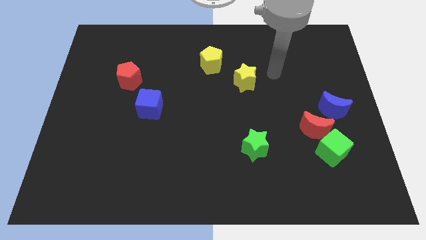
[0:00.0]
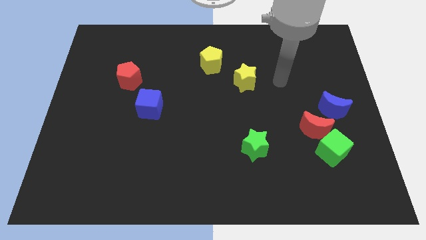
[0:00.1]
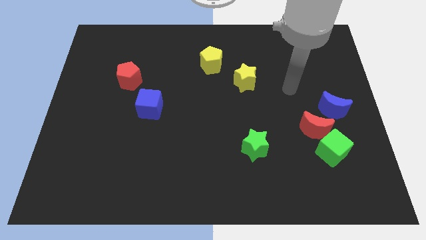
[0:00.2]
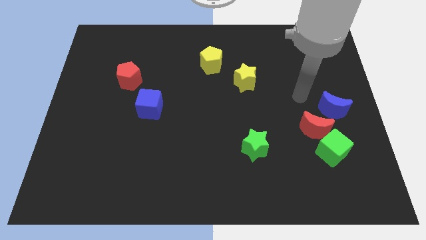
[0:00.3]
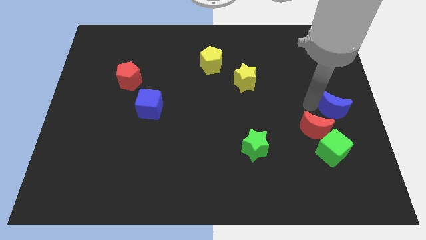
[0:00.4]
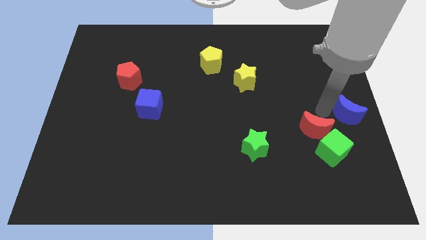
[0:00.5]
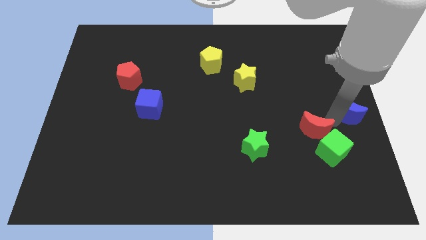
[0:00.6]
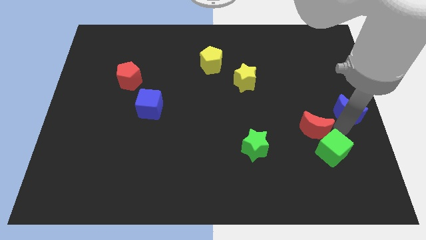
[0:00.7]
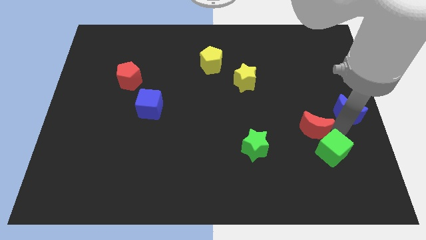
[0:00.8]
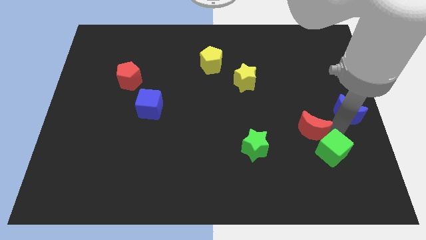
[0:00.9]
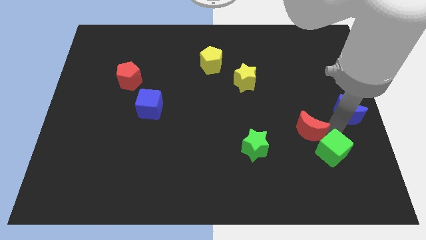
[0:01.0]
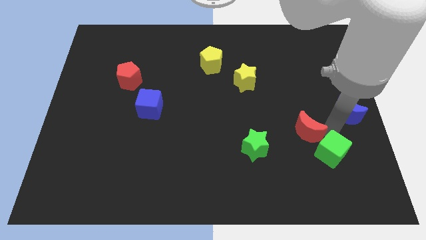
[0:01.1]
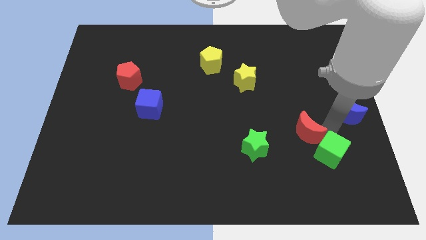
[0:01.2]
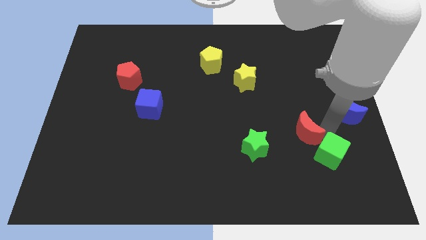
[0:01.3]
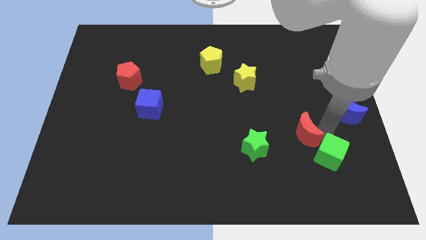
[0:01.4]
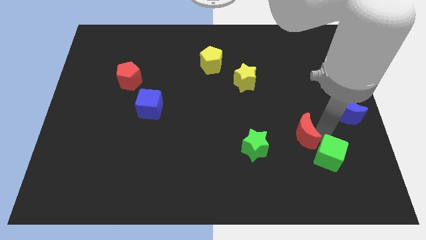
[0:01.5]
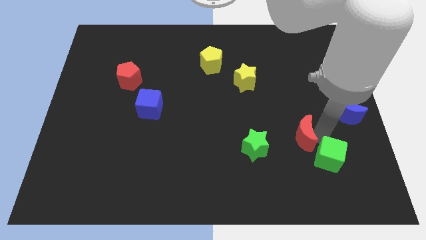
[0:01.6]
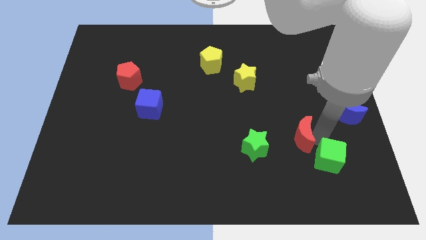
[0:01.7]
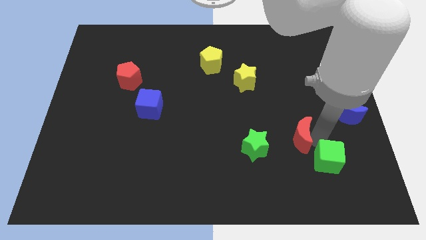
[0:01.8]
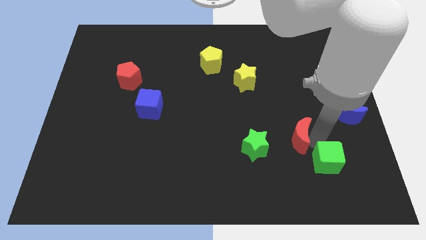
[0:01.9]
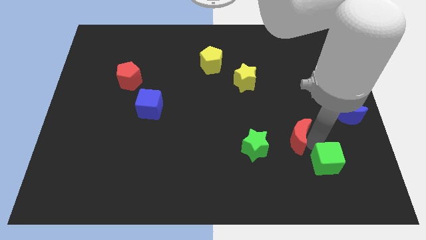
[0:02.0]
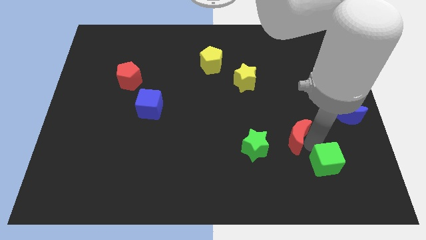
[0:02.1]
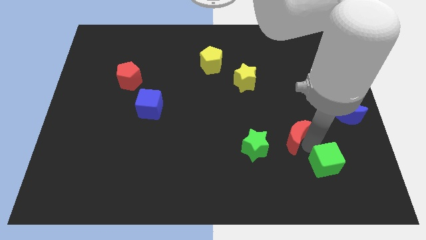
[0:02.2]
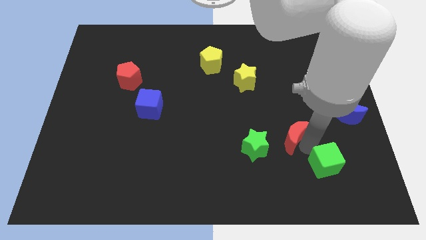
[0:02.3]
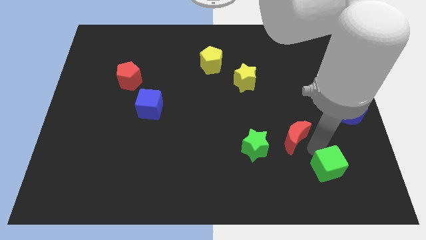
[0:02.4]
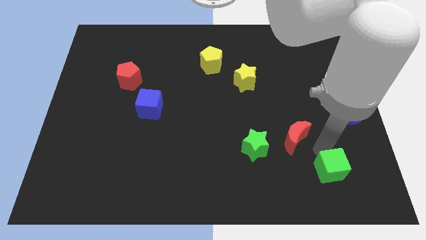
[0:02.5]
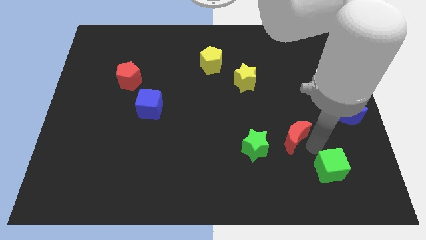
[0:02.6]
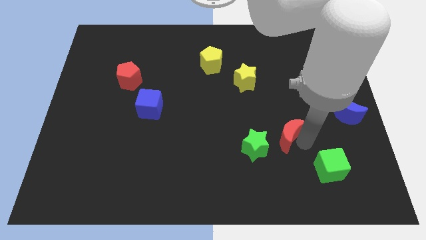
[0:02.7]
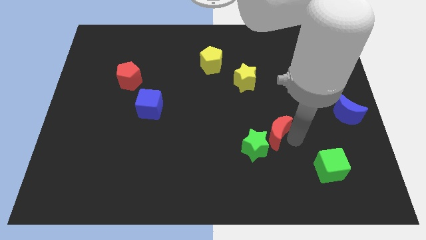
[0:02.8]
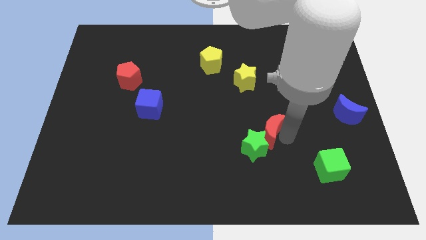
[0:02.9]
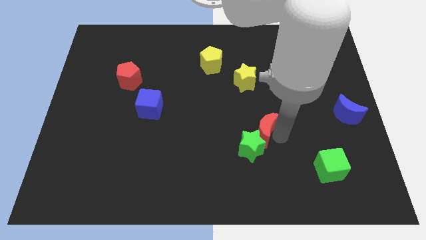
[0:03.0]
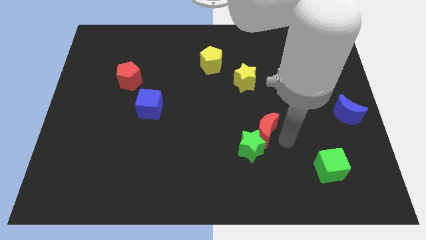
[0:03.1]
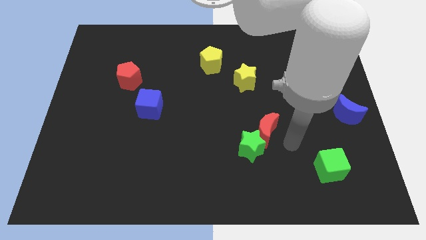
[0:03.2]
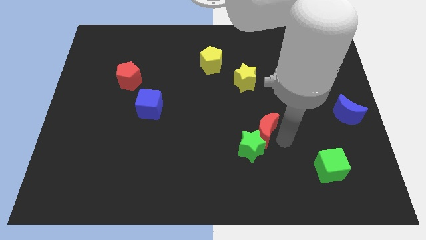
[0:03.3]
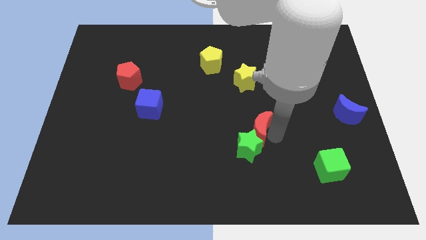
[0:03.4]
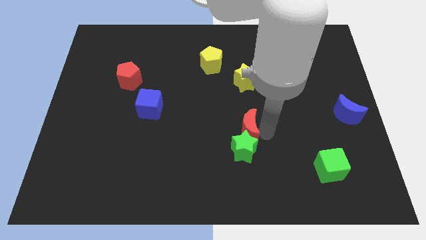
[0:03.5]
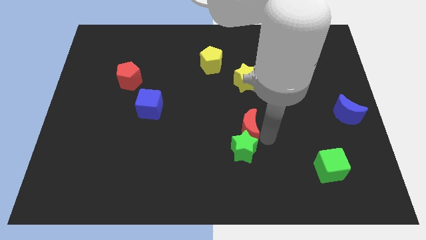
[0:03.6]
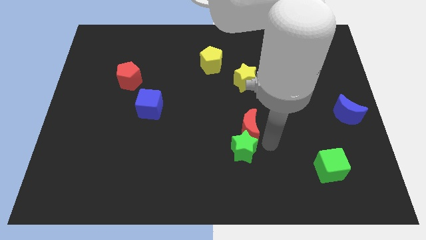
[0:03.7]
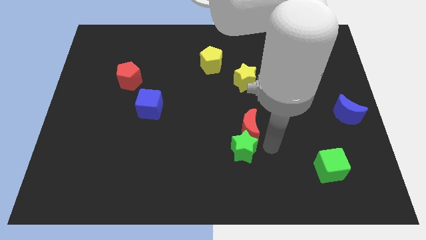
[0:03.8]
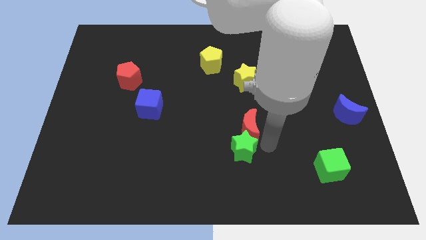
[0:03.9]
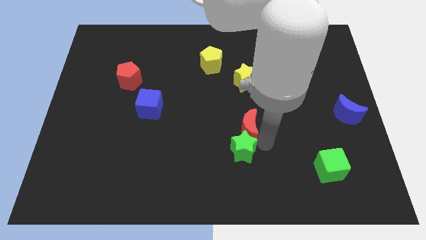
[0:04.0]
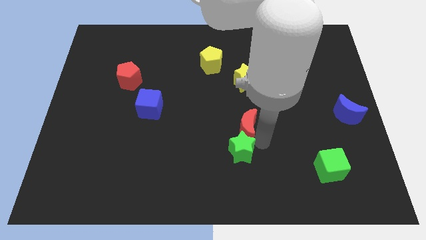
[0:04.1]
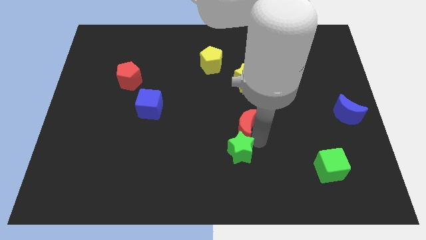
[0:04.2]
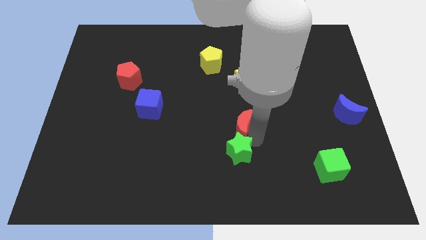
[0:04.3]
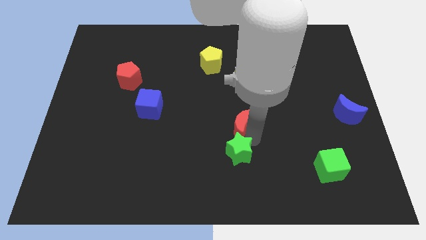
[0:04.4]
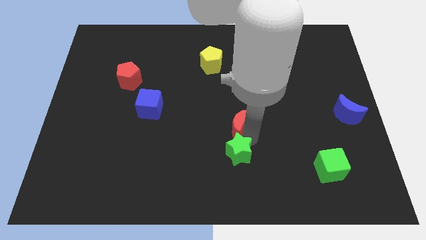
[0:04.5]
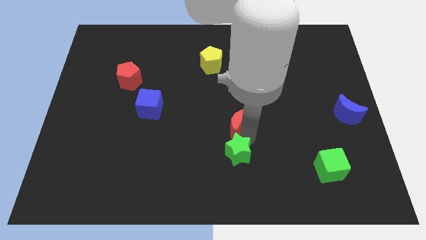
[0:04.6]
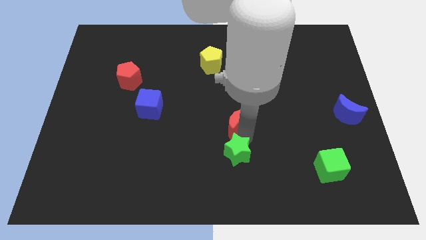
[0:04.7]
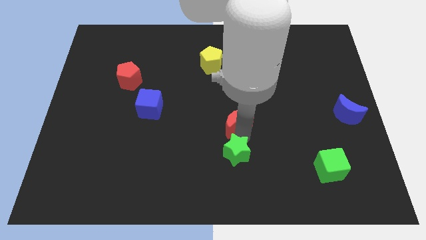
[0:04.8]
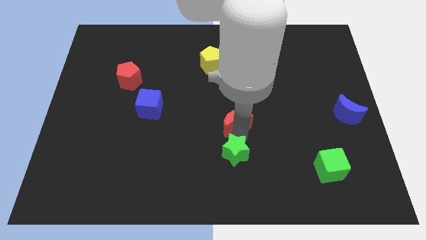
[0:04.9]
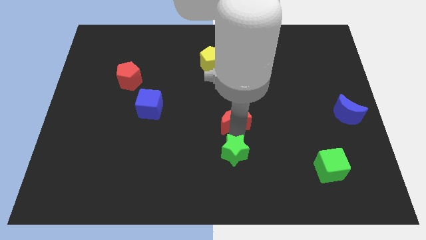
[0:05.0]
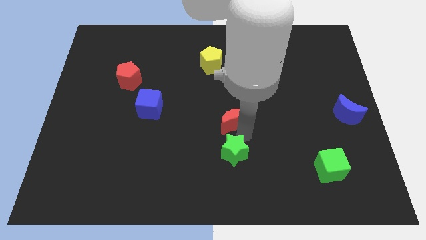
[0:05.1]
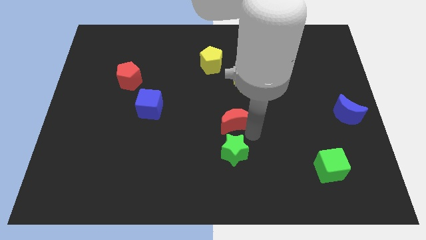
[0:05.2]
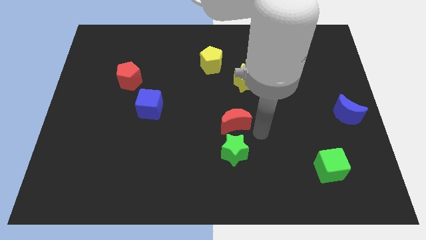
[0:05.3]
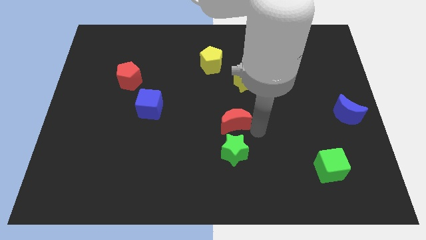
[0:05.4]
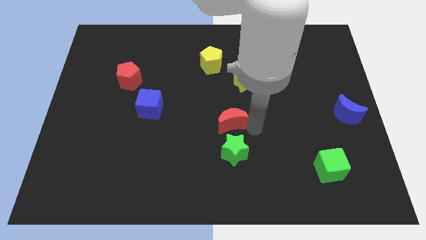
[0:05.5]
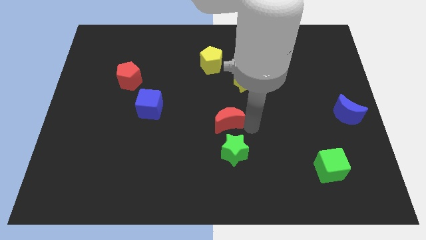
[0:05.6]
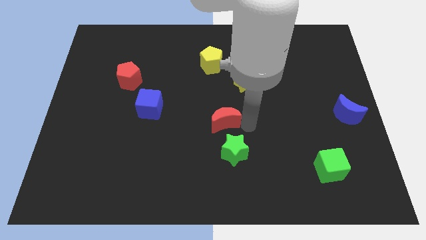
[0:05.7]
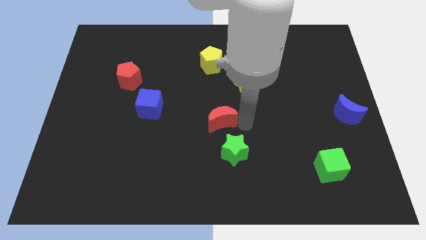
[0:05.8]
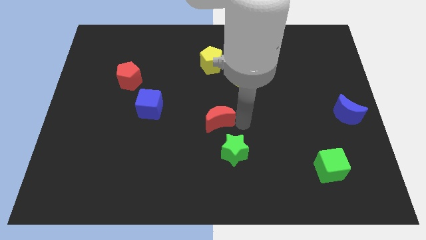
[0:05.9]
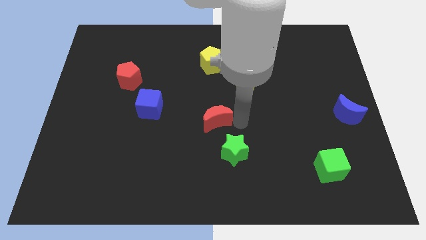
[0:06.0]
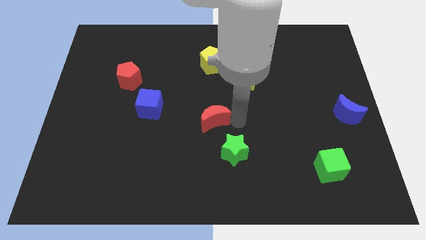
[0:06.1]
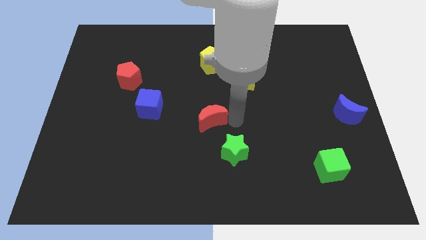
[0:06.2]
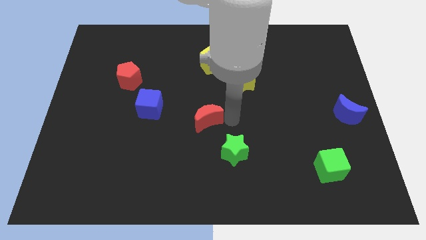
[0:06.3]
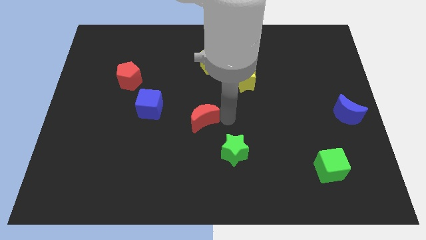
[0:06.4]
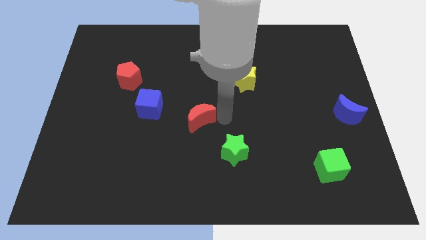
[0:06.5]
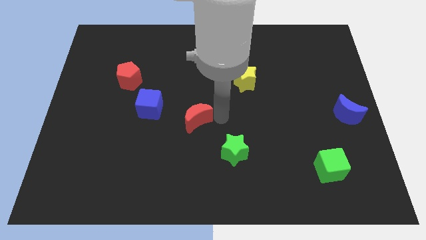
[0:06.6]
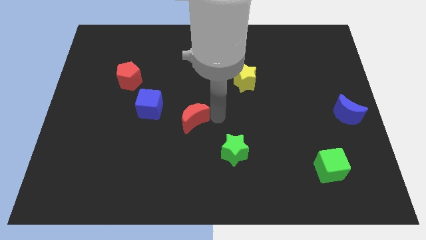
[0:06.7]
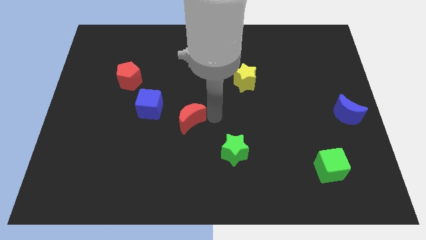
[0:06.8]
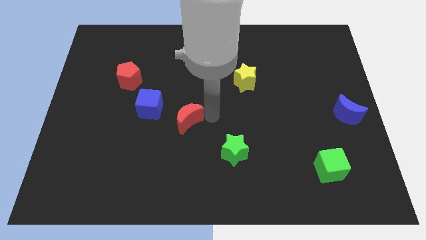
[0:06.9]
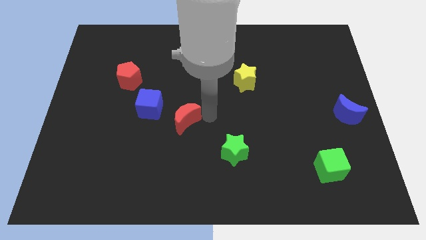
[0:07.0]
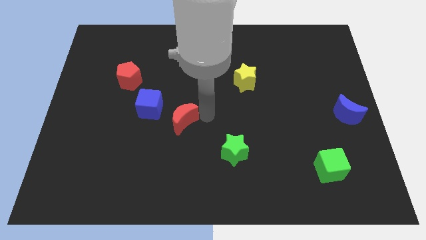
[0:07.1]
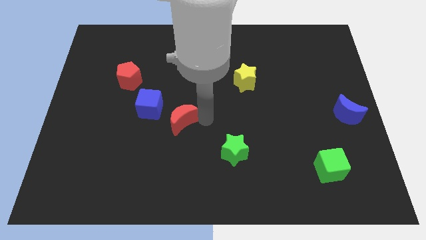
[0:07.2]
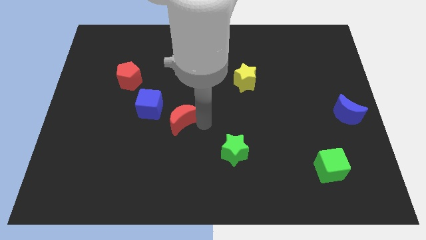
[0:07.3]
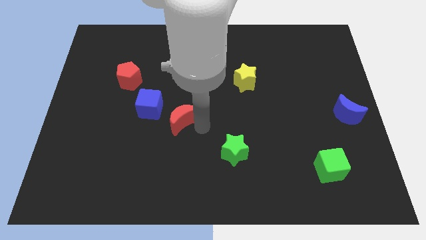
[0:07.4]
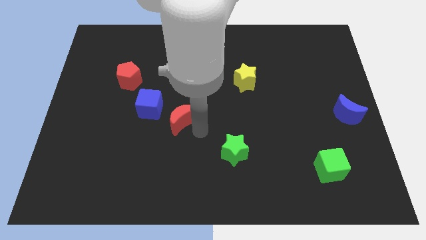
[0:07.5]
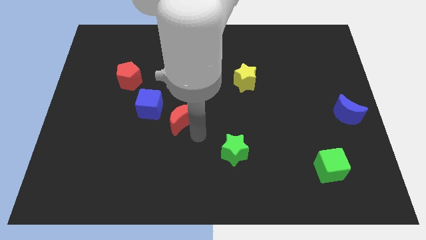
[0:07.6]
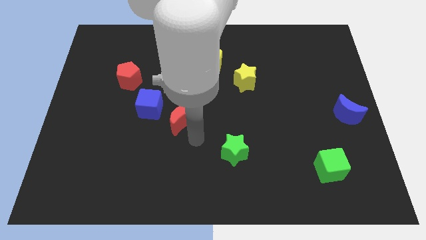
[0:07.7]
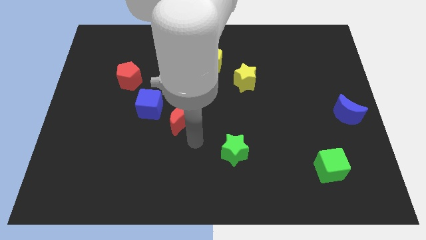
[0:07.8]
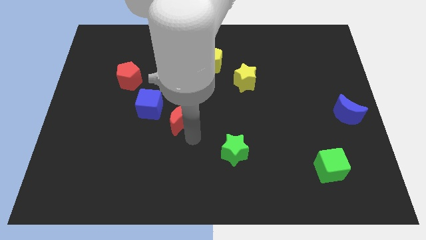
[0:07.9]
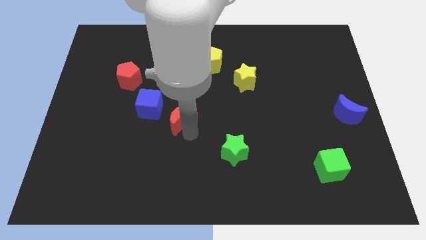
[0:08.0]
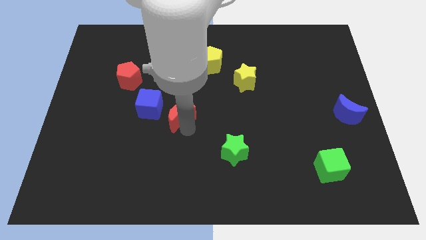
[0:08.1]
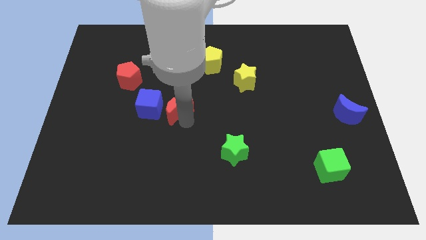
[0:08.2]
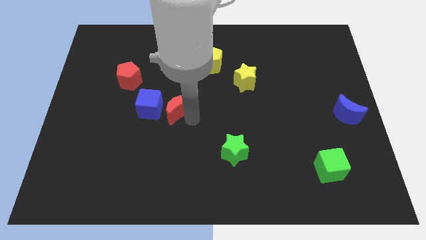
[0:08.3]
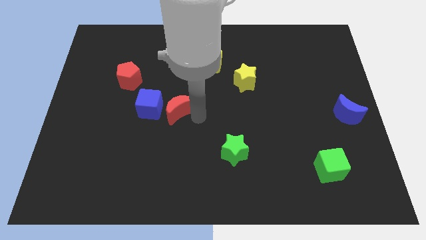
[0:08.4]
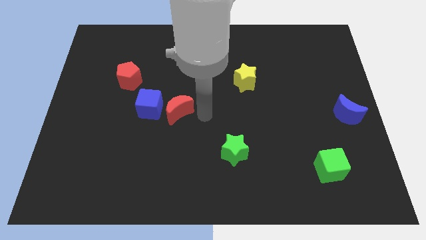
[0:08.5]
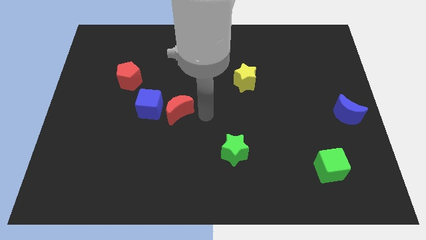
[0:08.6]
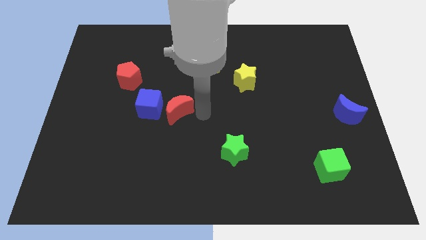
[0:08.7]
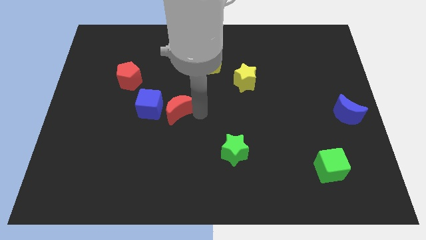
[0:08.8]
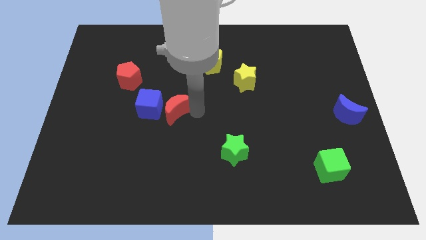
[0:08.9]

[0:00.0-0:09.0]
slide the red moon towards the blue cube
